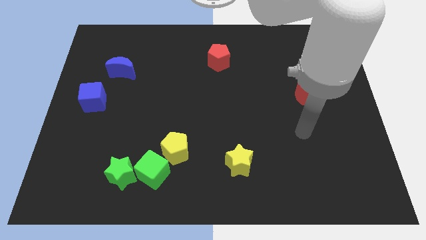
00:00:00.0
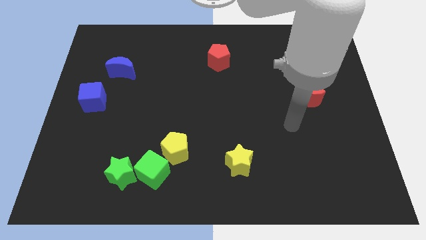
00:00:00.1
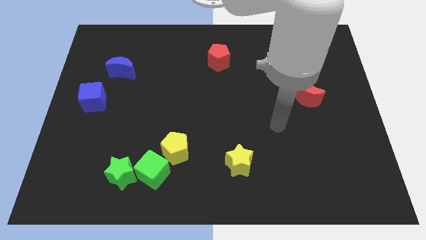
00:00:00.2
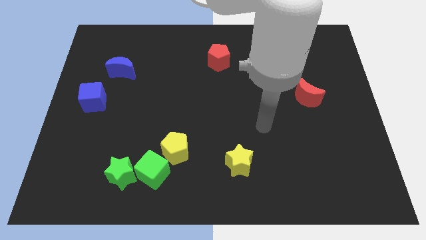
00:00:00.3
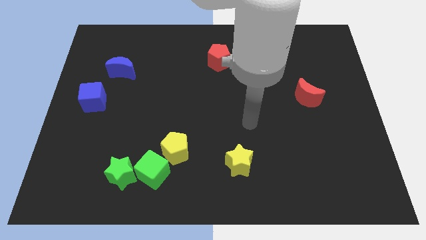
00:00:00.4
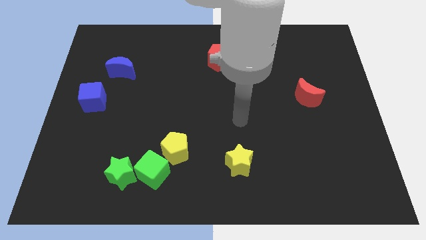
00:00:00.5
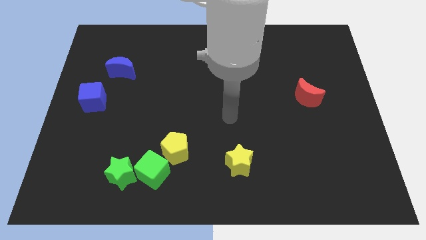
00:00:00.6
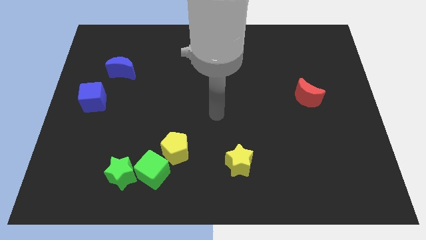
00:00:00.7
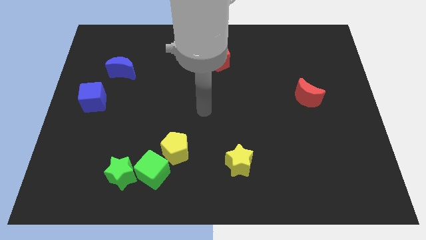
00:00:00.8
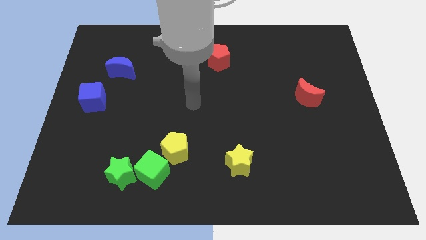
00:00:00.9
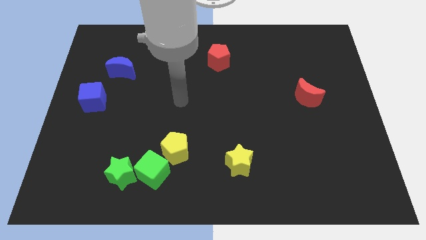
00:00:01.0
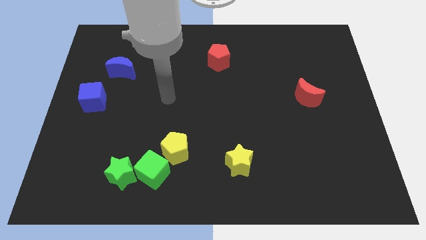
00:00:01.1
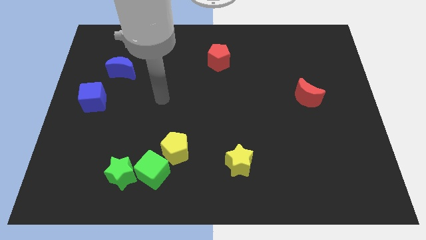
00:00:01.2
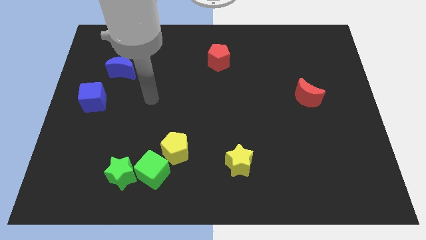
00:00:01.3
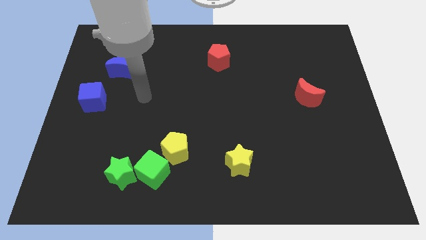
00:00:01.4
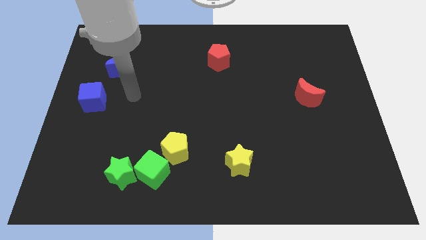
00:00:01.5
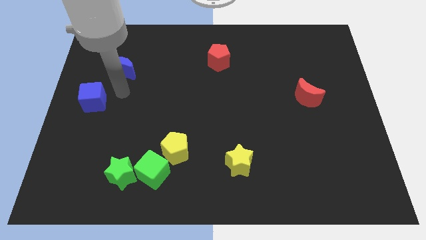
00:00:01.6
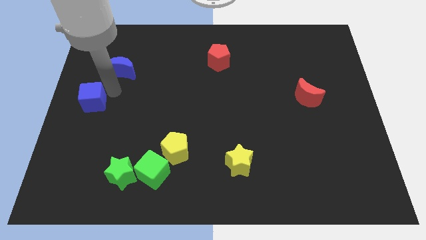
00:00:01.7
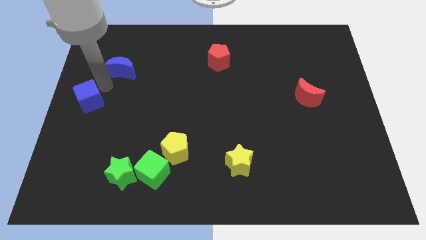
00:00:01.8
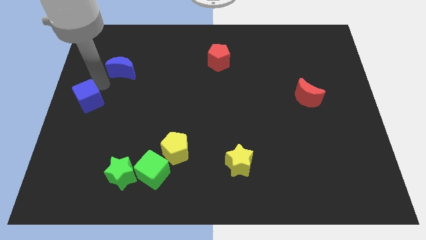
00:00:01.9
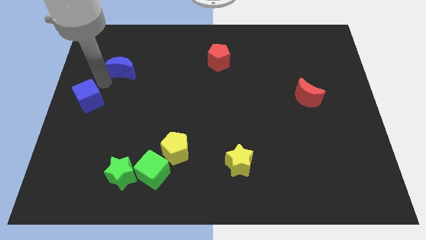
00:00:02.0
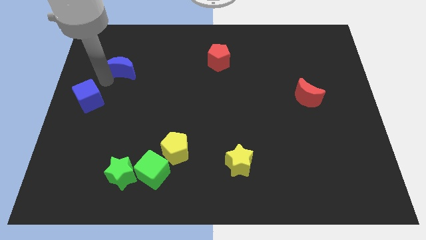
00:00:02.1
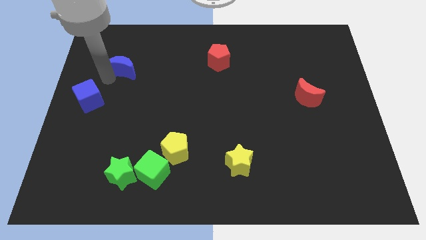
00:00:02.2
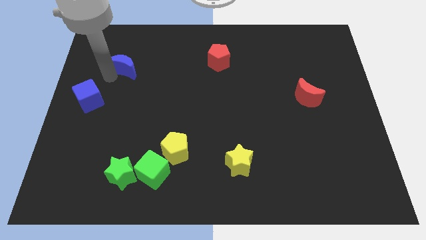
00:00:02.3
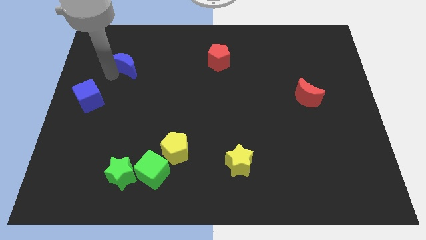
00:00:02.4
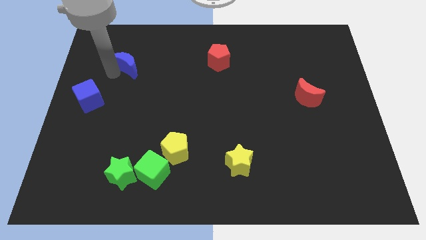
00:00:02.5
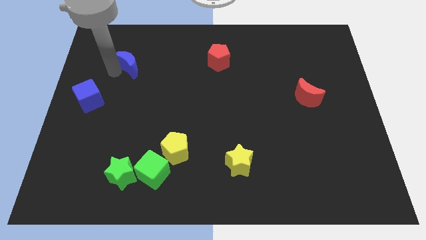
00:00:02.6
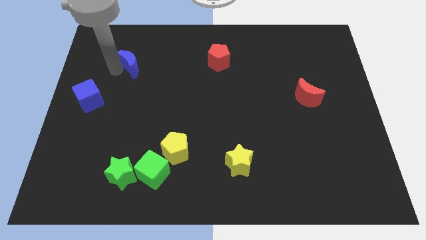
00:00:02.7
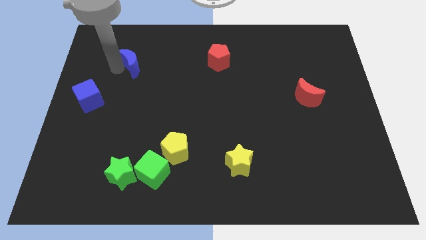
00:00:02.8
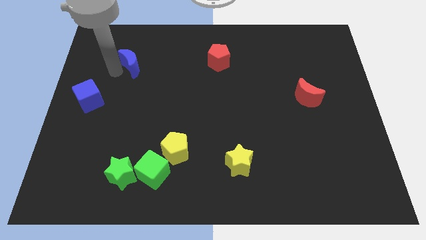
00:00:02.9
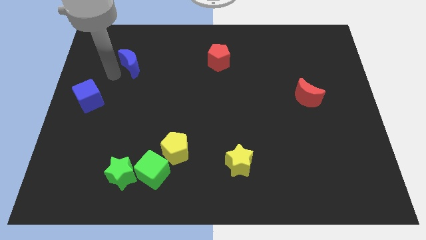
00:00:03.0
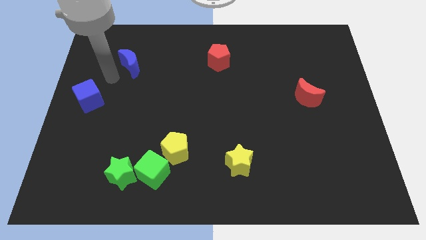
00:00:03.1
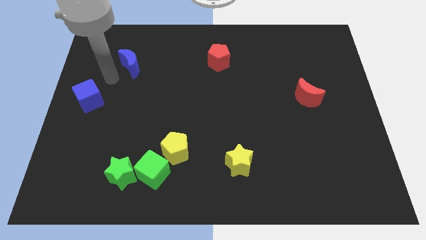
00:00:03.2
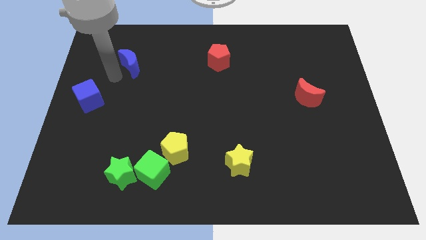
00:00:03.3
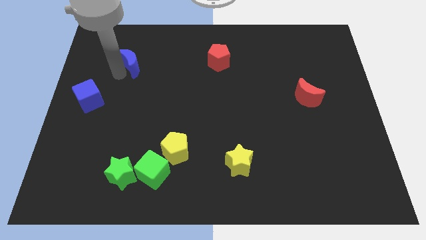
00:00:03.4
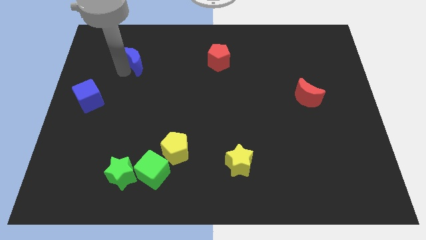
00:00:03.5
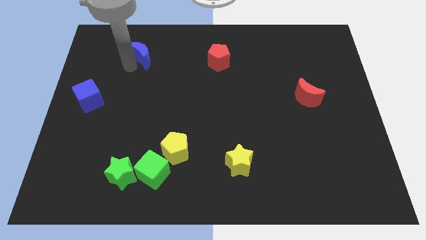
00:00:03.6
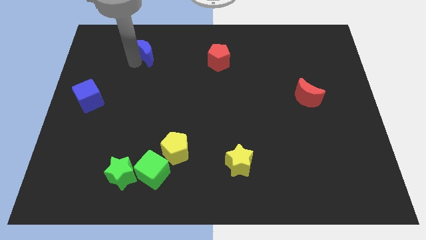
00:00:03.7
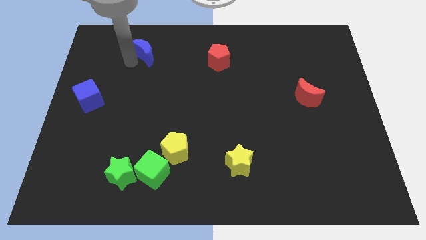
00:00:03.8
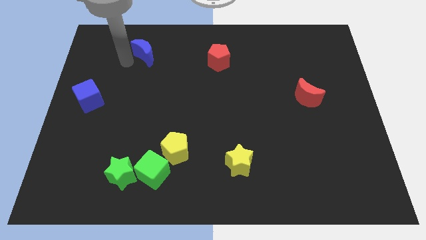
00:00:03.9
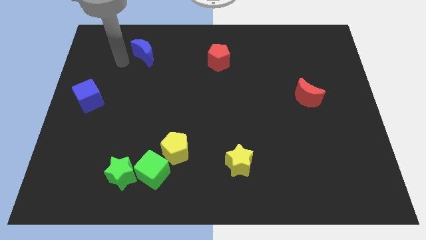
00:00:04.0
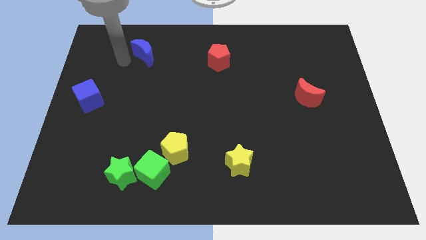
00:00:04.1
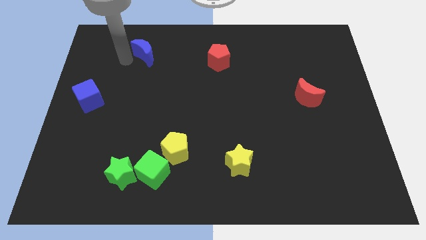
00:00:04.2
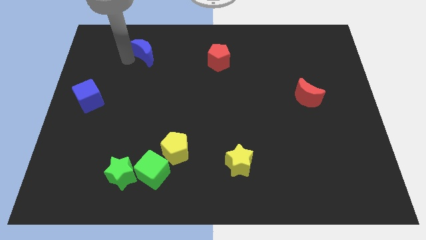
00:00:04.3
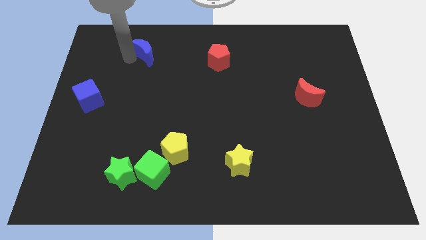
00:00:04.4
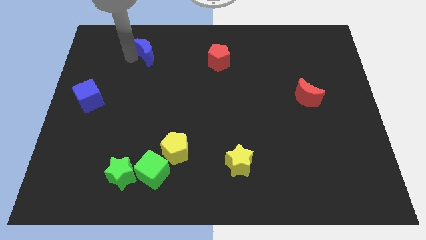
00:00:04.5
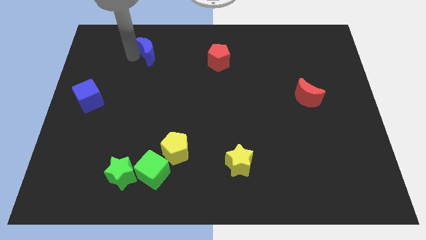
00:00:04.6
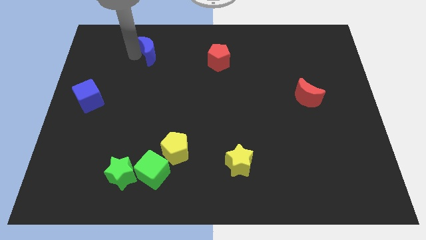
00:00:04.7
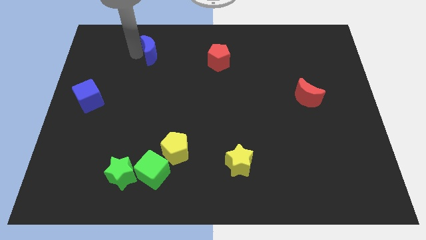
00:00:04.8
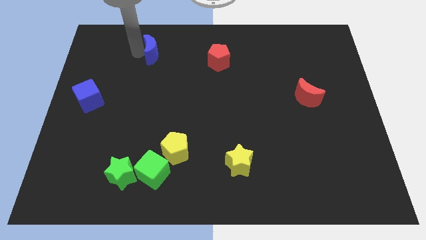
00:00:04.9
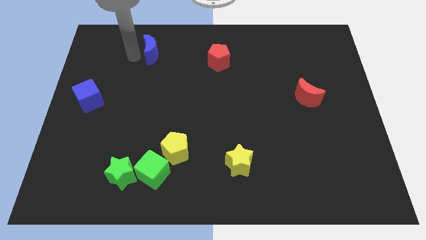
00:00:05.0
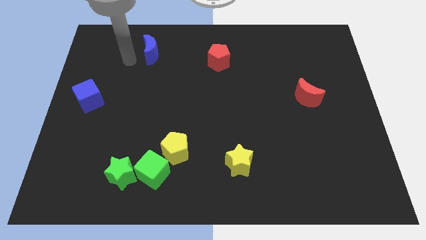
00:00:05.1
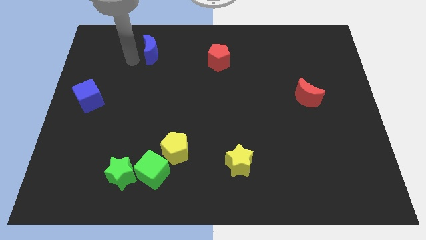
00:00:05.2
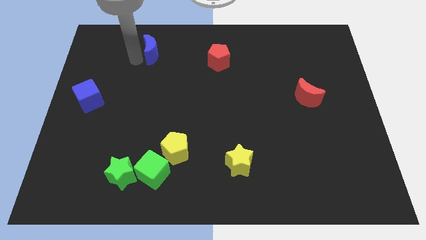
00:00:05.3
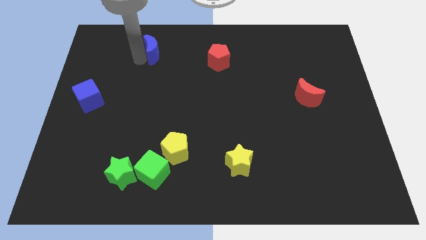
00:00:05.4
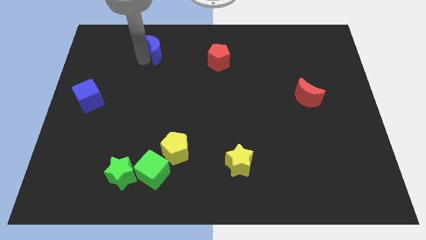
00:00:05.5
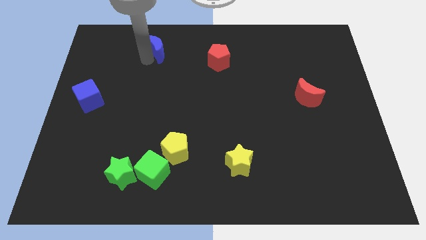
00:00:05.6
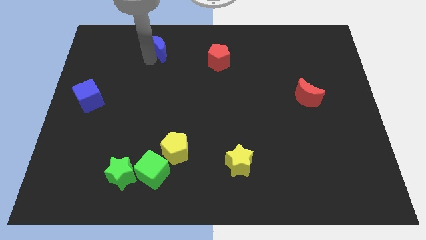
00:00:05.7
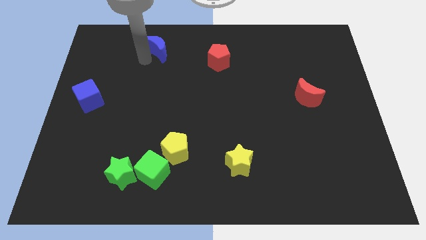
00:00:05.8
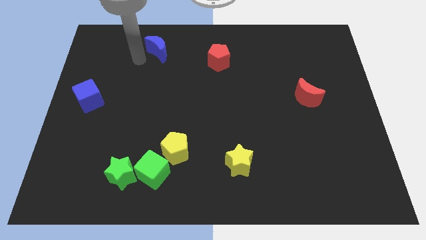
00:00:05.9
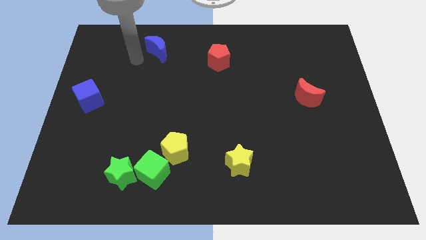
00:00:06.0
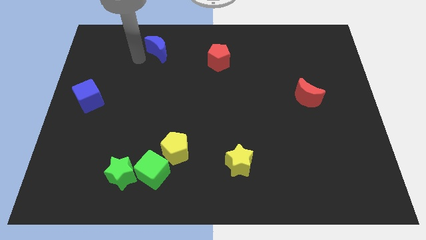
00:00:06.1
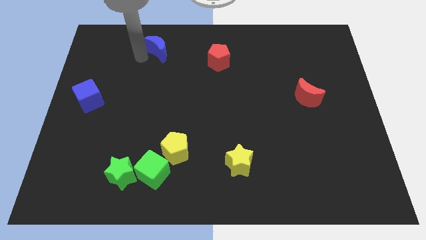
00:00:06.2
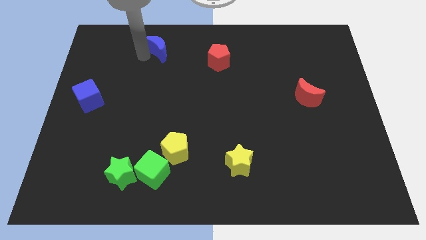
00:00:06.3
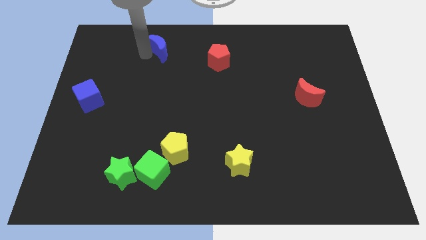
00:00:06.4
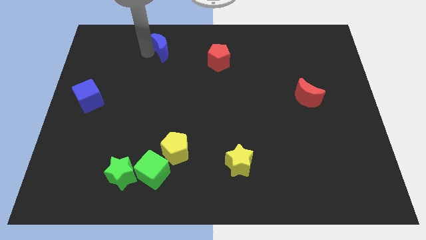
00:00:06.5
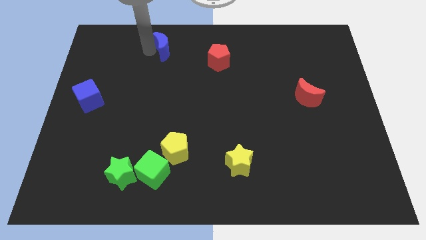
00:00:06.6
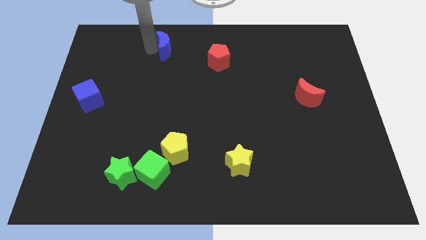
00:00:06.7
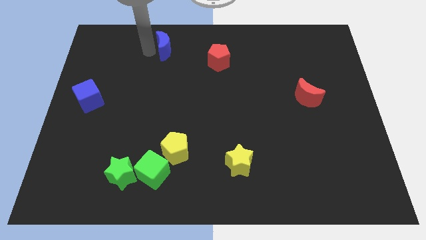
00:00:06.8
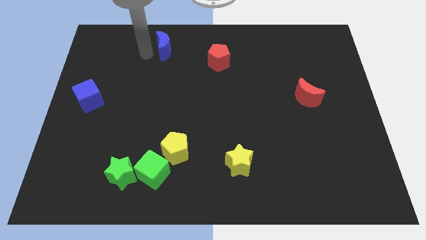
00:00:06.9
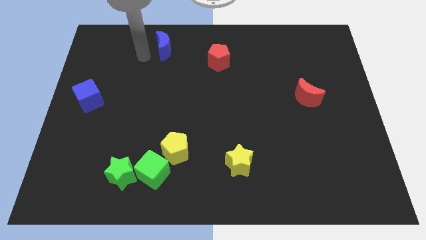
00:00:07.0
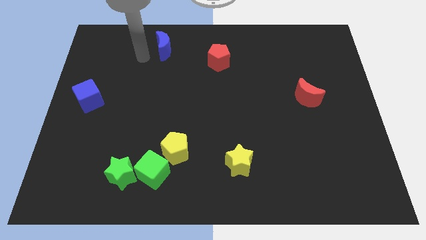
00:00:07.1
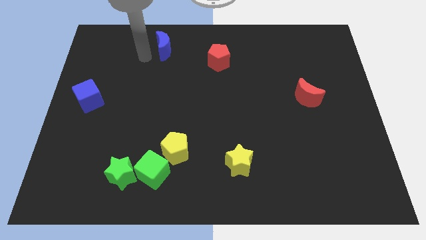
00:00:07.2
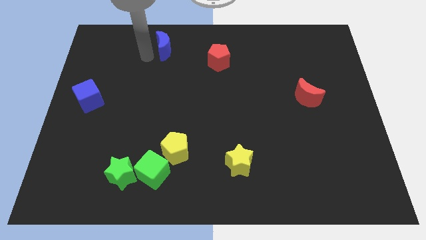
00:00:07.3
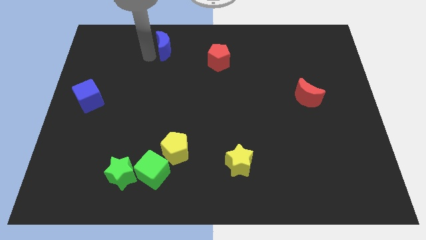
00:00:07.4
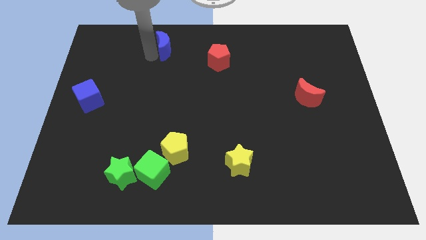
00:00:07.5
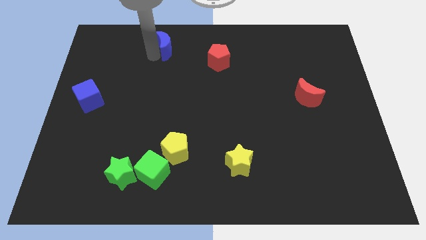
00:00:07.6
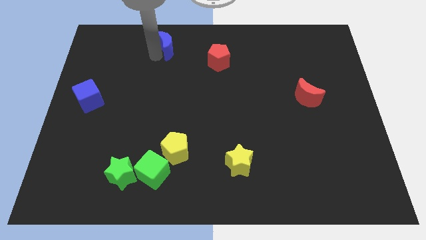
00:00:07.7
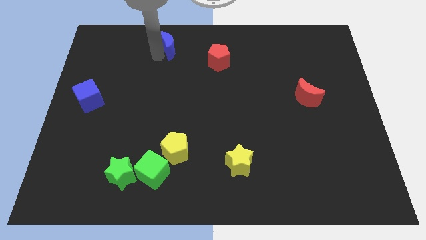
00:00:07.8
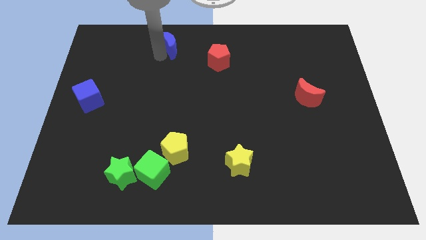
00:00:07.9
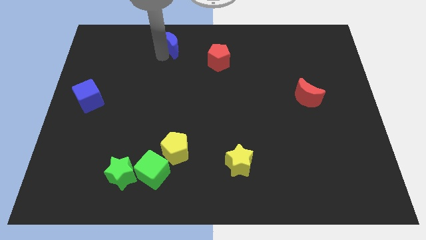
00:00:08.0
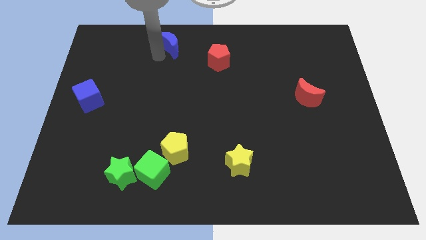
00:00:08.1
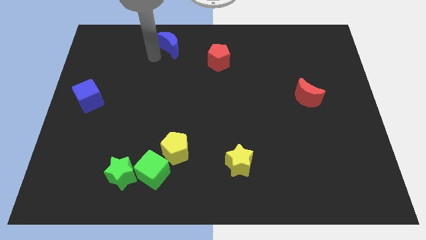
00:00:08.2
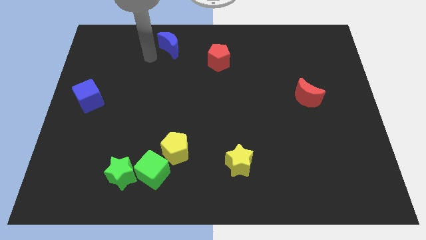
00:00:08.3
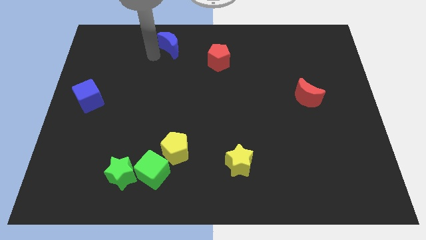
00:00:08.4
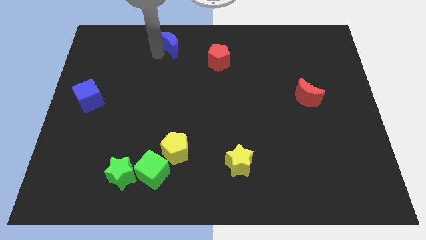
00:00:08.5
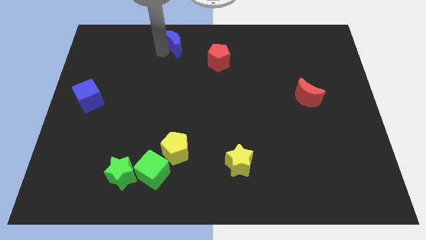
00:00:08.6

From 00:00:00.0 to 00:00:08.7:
move the blue moon to the towards your base
